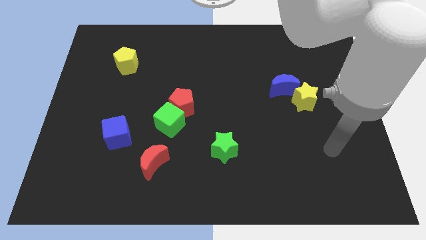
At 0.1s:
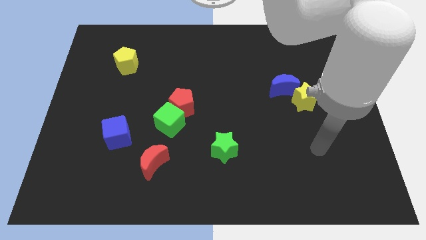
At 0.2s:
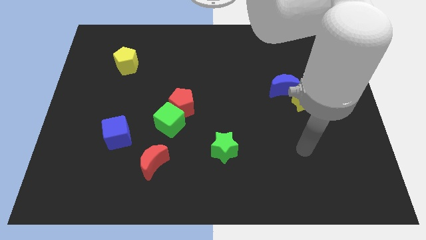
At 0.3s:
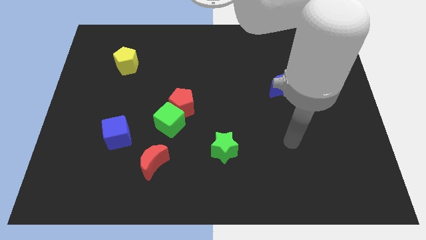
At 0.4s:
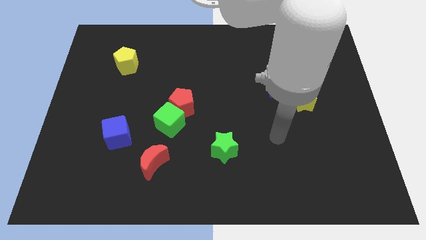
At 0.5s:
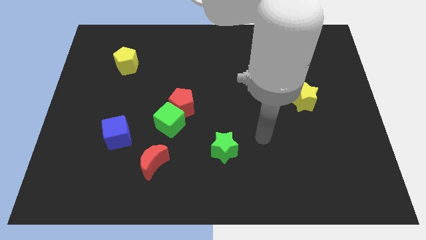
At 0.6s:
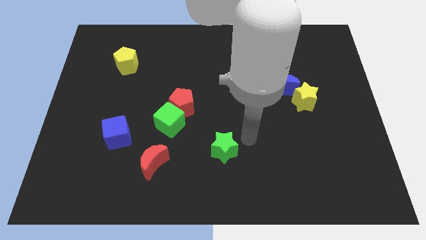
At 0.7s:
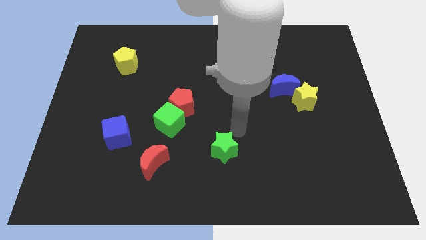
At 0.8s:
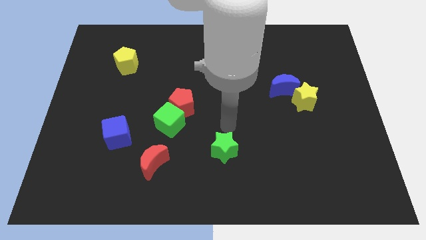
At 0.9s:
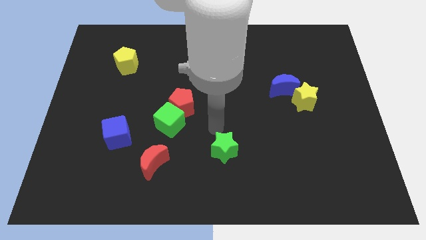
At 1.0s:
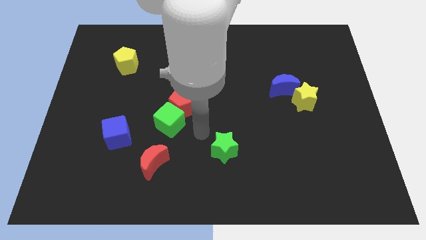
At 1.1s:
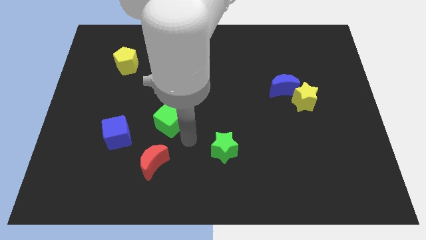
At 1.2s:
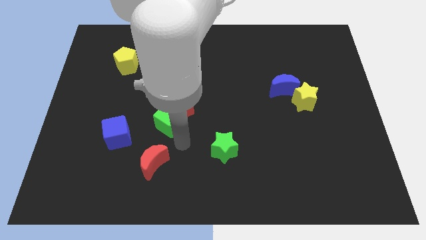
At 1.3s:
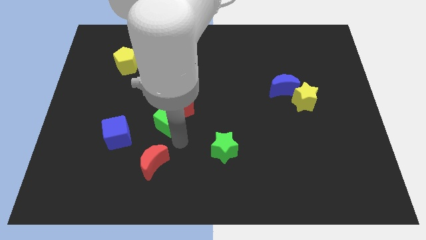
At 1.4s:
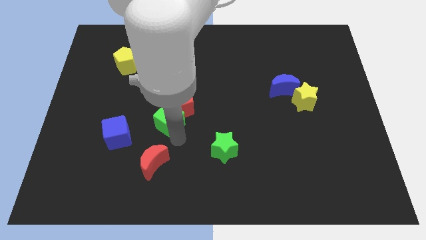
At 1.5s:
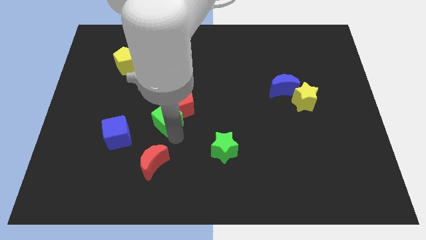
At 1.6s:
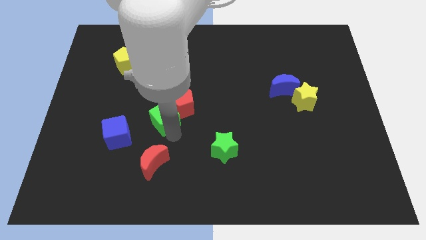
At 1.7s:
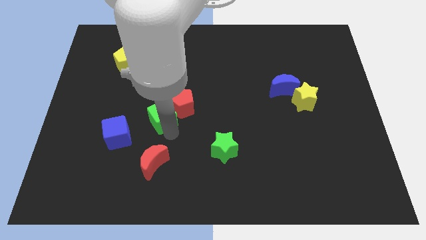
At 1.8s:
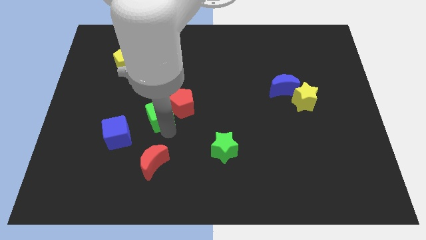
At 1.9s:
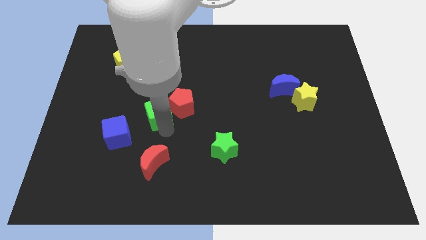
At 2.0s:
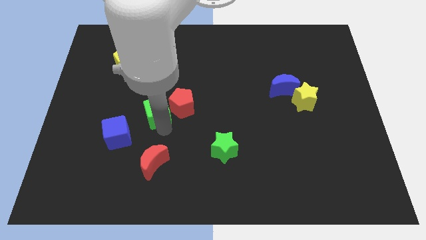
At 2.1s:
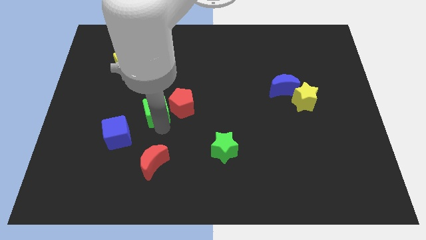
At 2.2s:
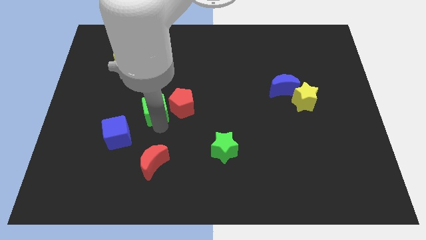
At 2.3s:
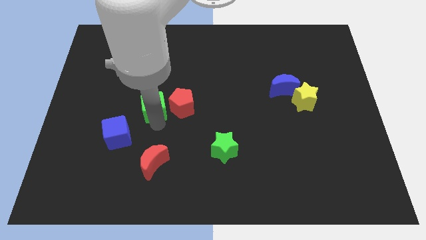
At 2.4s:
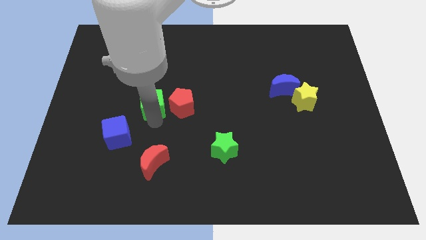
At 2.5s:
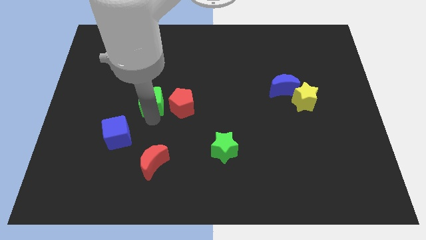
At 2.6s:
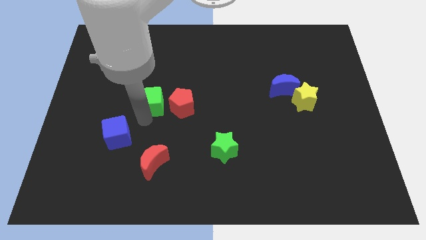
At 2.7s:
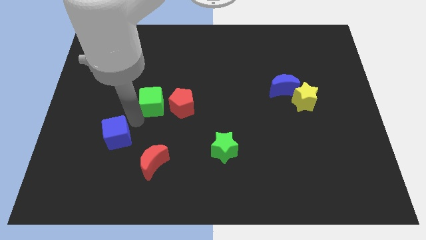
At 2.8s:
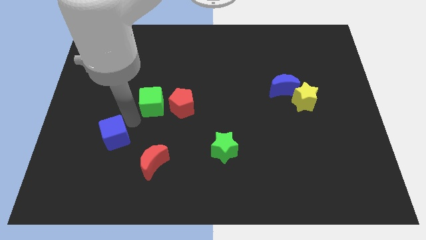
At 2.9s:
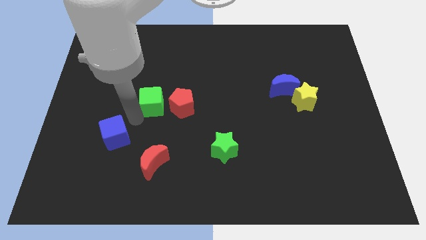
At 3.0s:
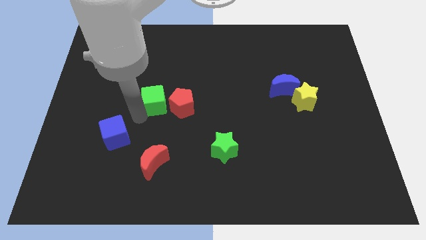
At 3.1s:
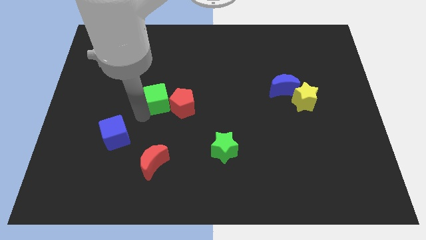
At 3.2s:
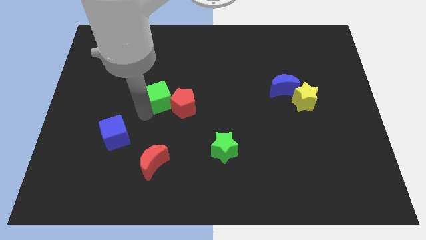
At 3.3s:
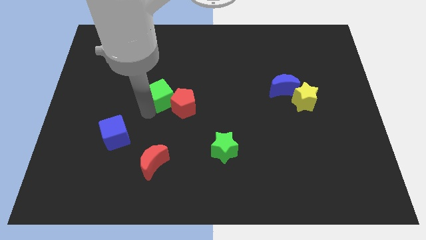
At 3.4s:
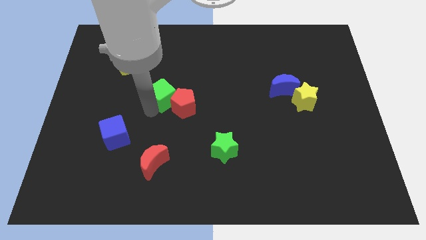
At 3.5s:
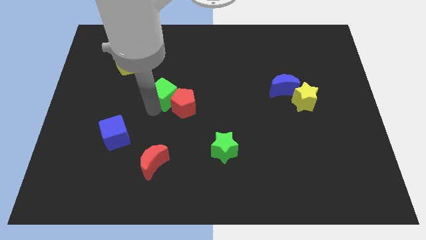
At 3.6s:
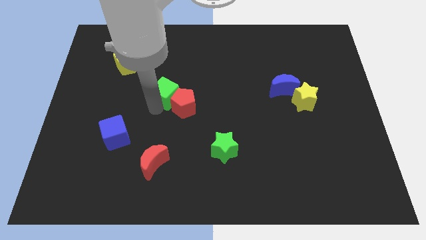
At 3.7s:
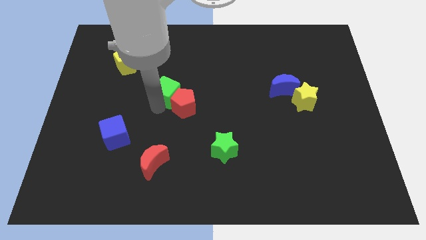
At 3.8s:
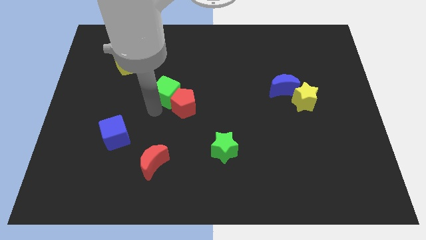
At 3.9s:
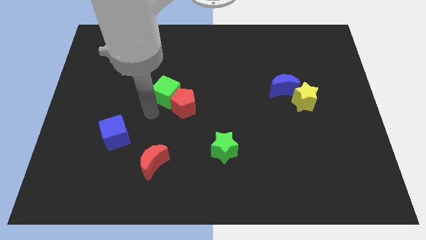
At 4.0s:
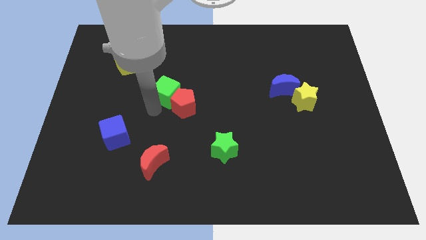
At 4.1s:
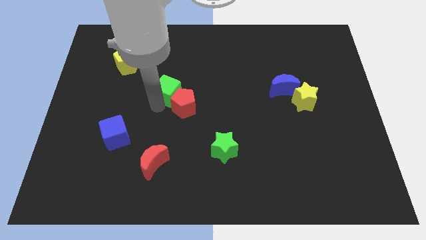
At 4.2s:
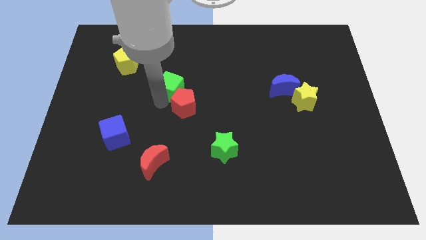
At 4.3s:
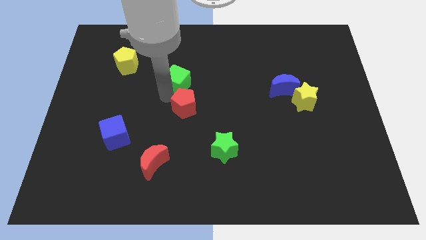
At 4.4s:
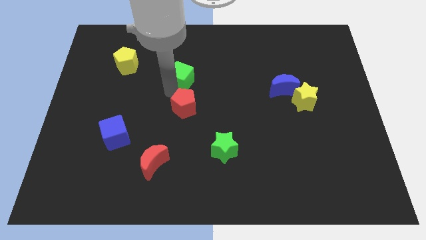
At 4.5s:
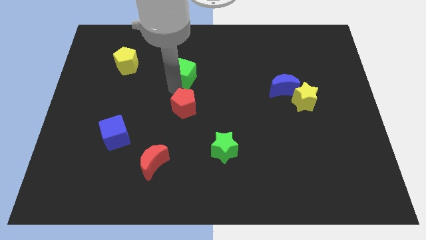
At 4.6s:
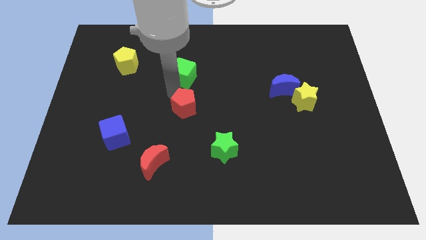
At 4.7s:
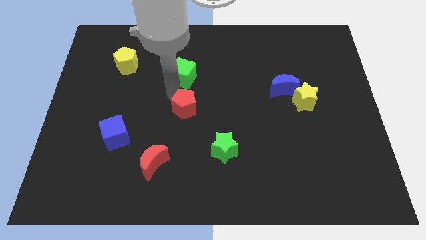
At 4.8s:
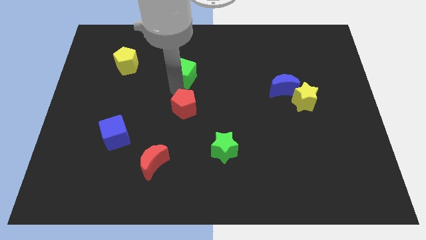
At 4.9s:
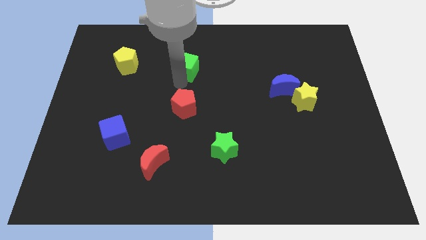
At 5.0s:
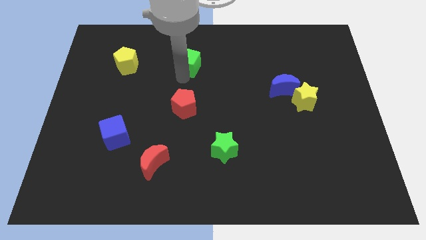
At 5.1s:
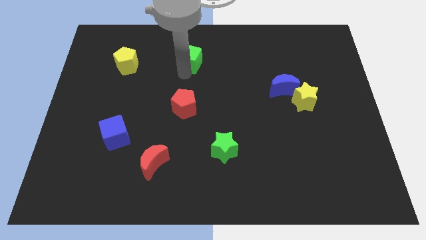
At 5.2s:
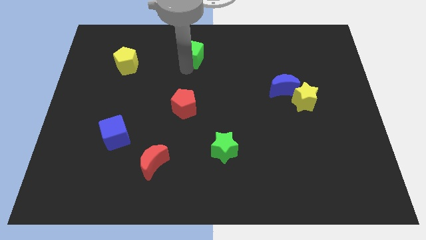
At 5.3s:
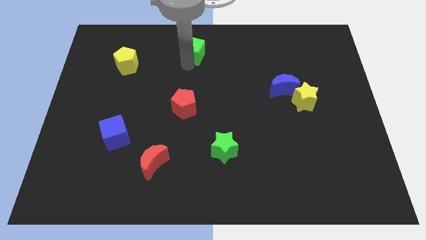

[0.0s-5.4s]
slide the green cube to the top

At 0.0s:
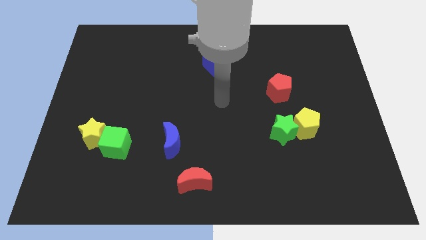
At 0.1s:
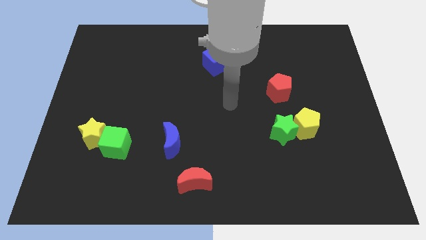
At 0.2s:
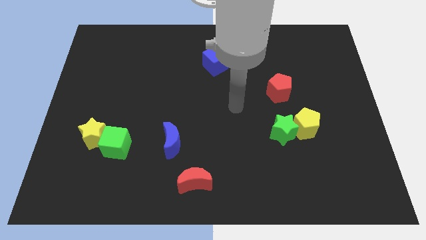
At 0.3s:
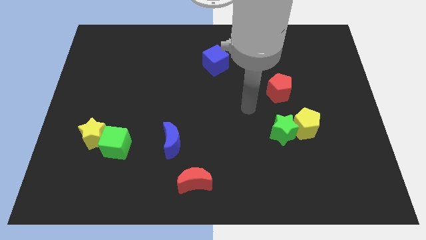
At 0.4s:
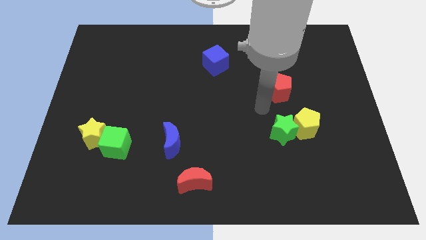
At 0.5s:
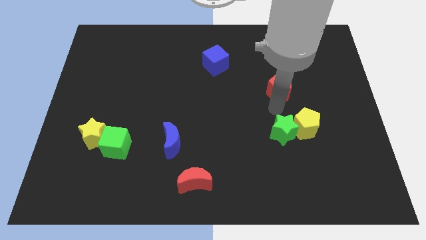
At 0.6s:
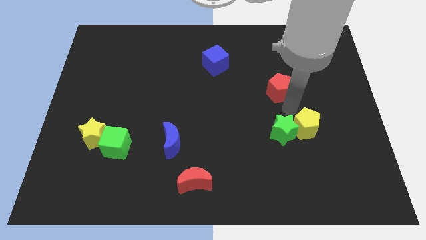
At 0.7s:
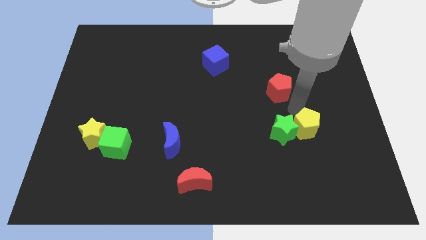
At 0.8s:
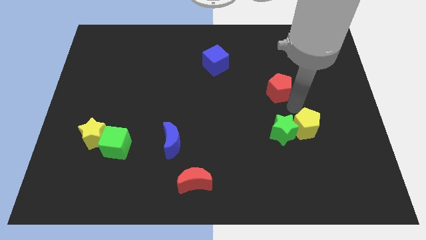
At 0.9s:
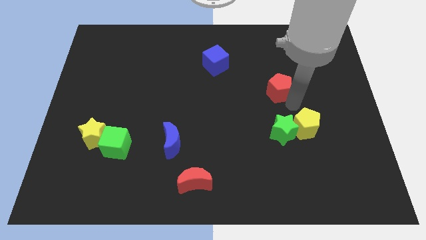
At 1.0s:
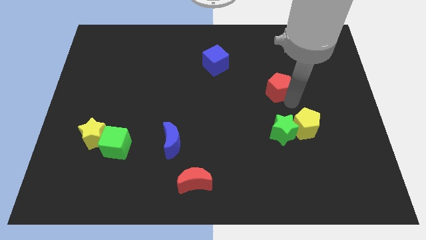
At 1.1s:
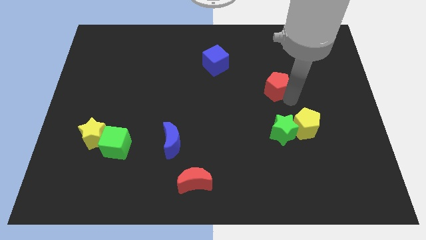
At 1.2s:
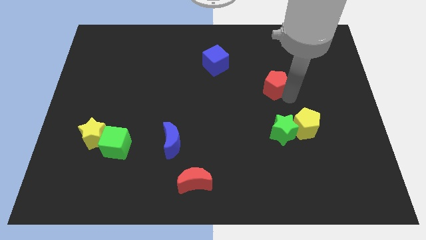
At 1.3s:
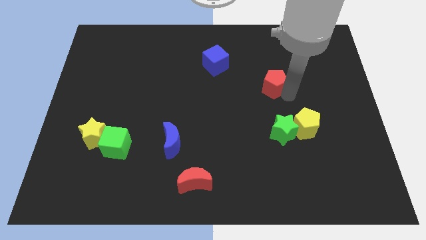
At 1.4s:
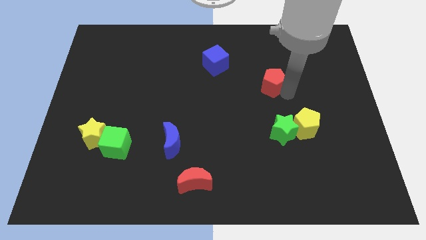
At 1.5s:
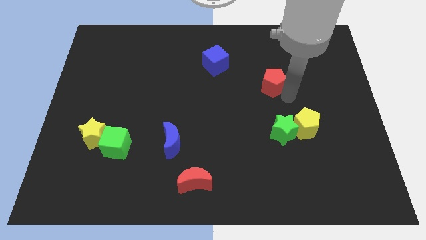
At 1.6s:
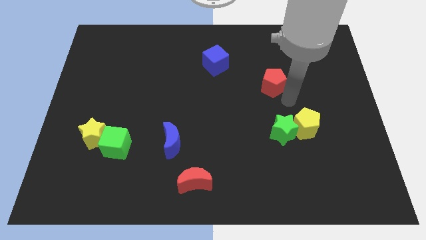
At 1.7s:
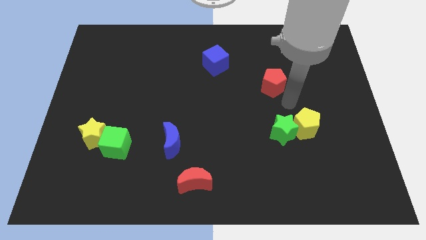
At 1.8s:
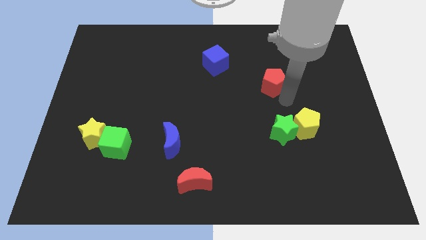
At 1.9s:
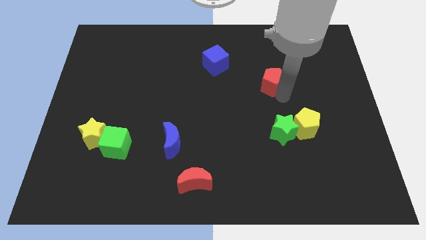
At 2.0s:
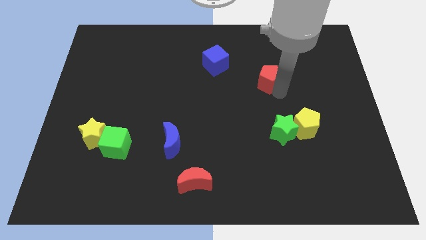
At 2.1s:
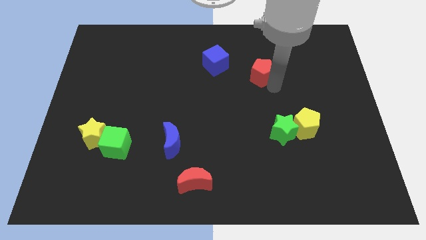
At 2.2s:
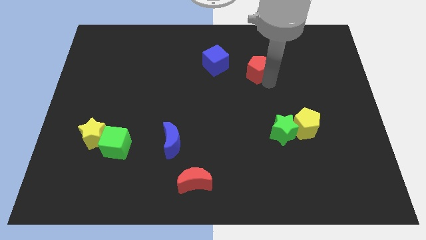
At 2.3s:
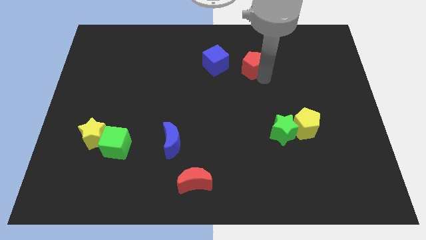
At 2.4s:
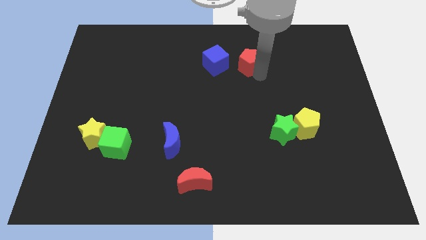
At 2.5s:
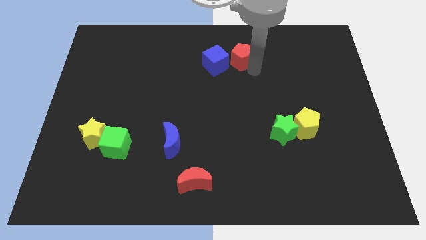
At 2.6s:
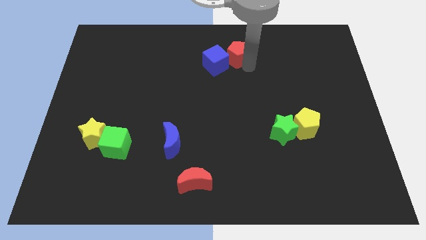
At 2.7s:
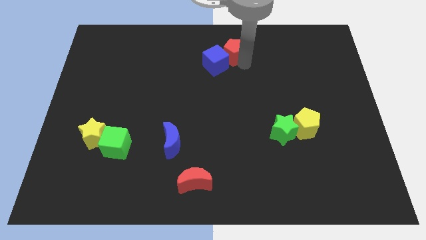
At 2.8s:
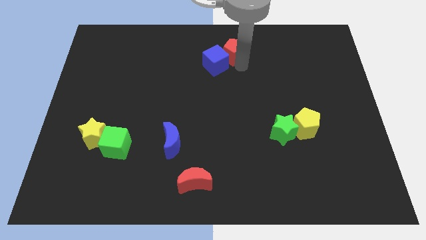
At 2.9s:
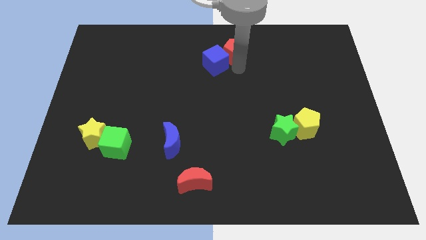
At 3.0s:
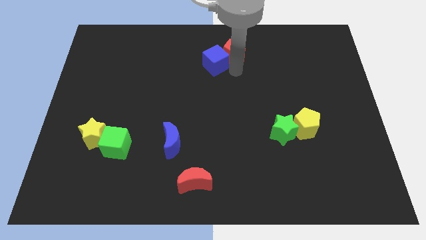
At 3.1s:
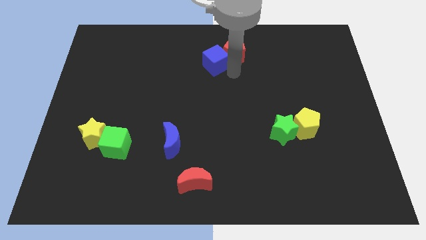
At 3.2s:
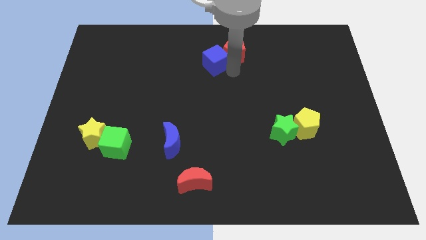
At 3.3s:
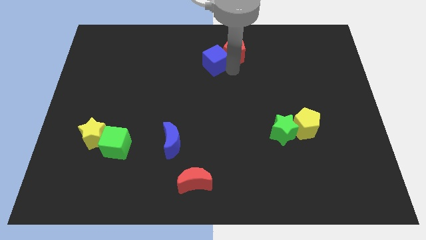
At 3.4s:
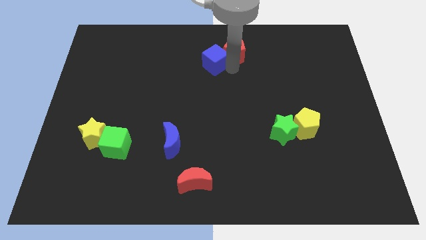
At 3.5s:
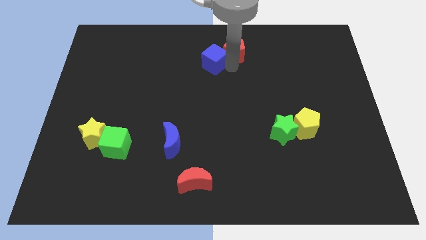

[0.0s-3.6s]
slide the red pentagon to the towards your base
